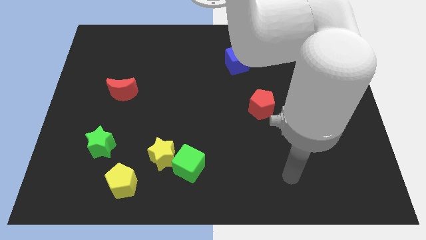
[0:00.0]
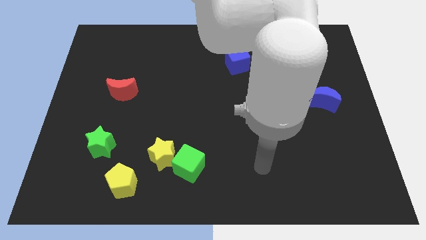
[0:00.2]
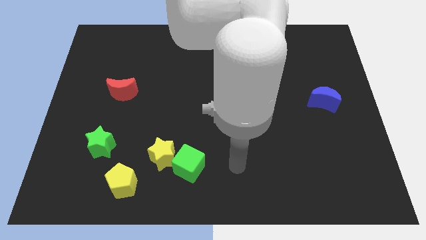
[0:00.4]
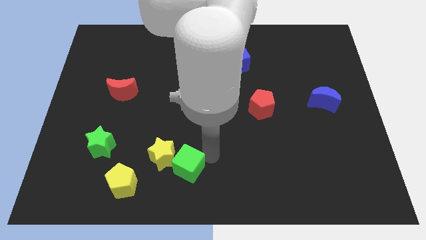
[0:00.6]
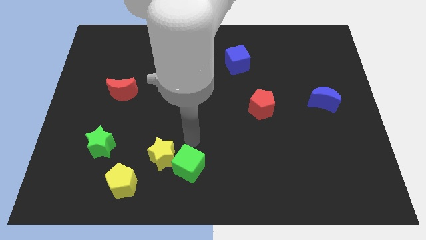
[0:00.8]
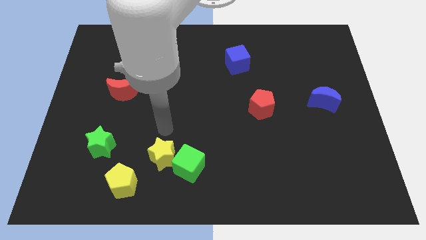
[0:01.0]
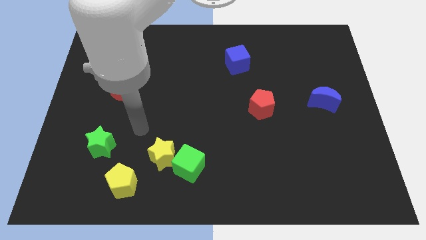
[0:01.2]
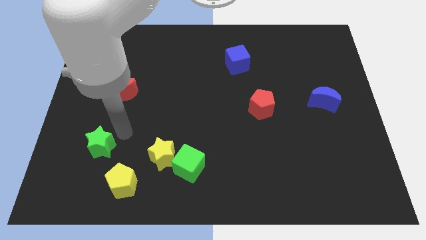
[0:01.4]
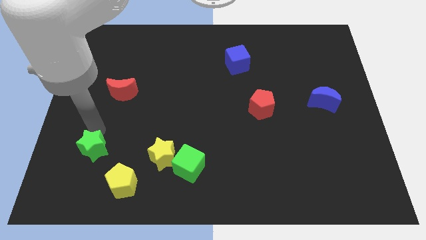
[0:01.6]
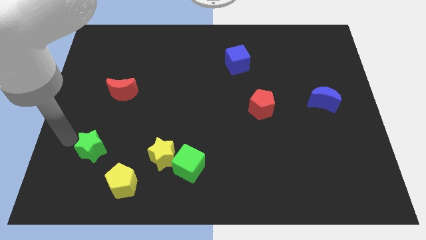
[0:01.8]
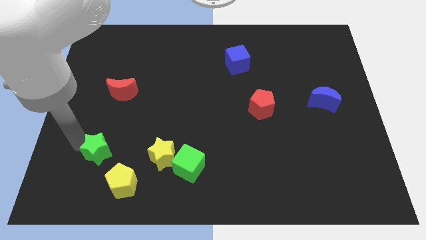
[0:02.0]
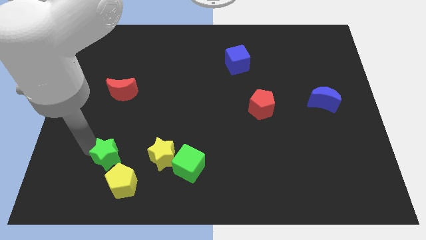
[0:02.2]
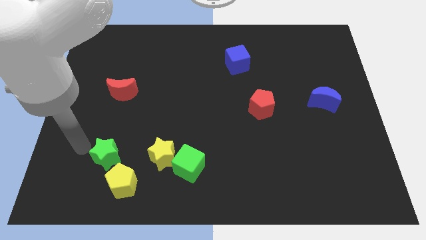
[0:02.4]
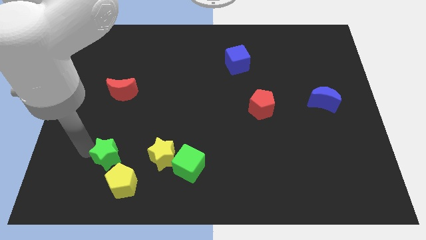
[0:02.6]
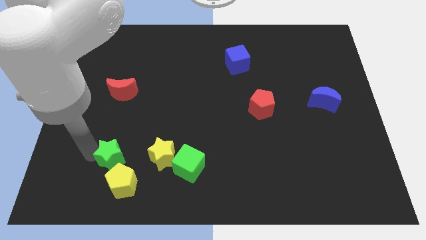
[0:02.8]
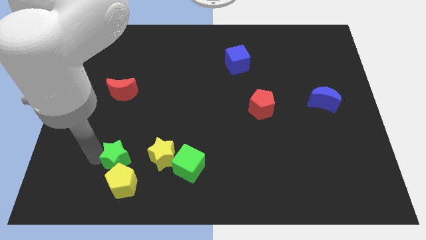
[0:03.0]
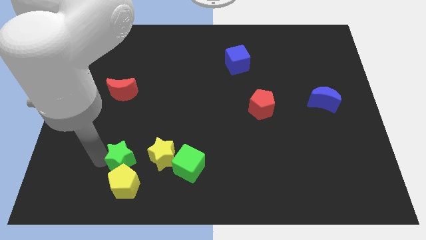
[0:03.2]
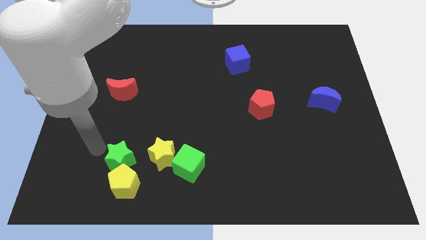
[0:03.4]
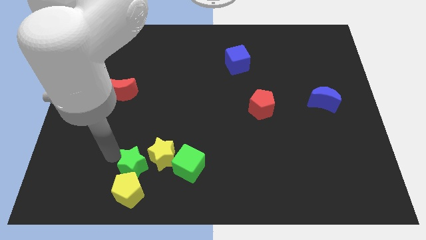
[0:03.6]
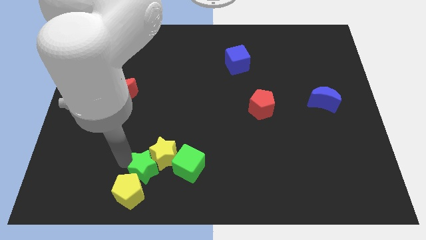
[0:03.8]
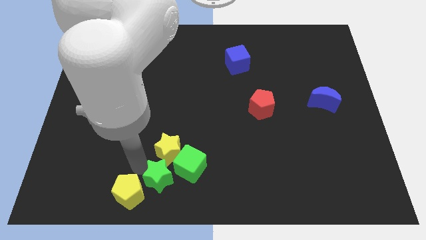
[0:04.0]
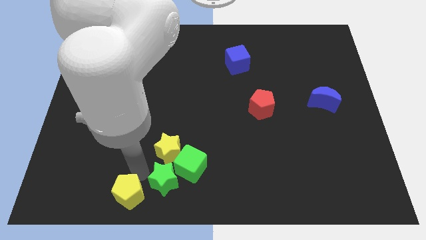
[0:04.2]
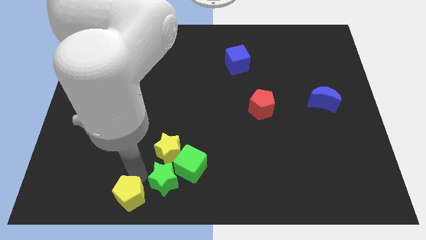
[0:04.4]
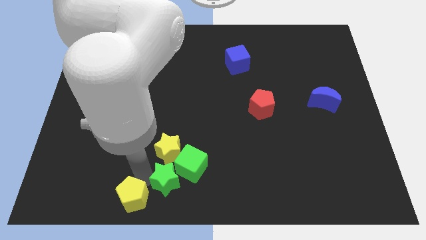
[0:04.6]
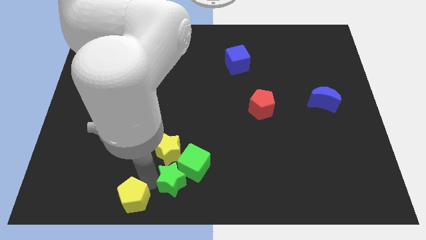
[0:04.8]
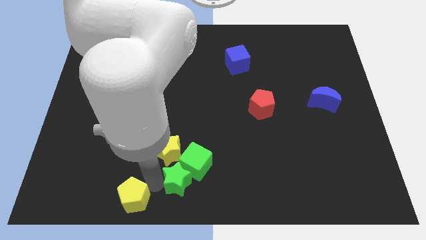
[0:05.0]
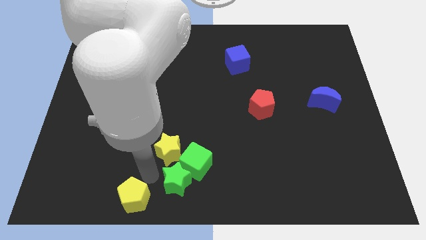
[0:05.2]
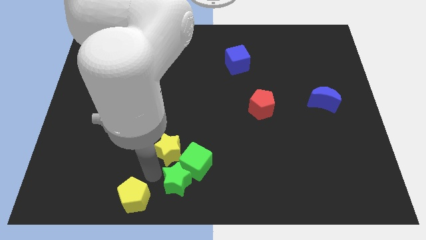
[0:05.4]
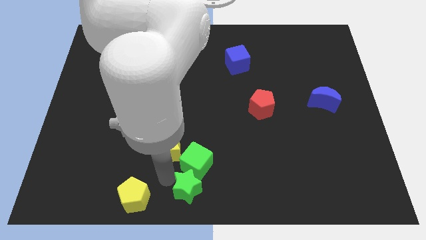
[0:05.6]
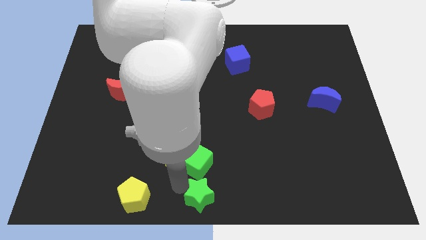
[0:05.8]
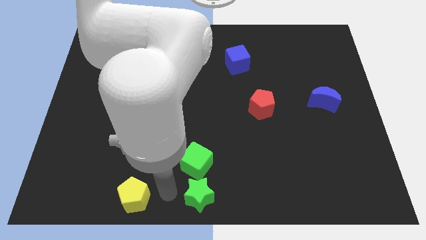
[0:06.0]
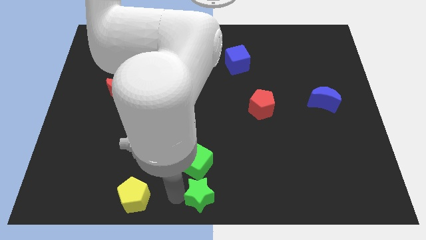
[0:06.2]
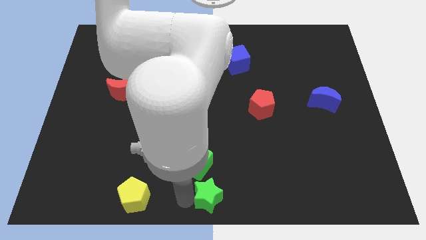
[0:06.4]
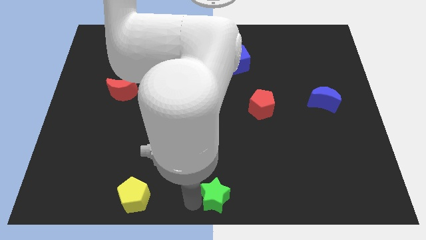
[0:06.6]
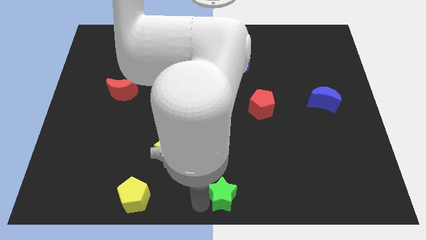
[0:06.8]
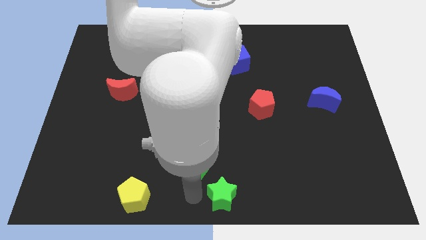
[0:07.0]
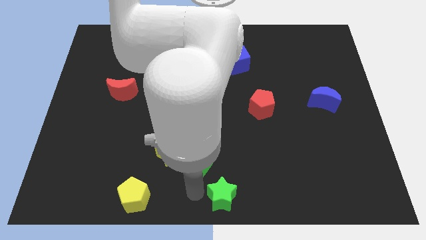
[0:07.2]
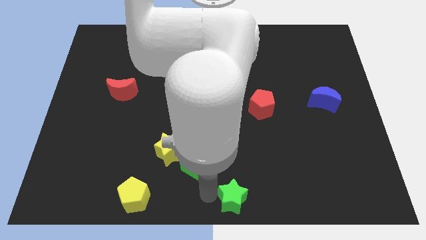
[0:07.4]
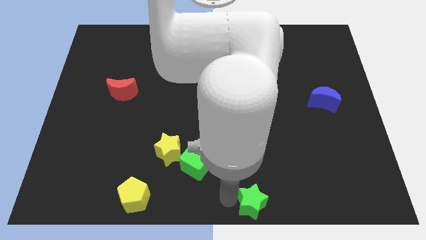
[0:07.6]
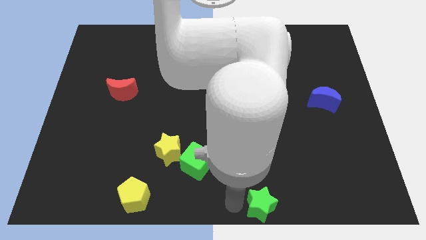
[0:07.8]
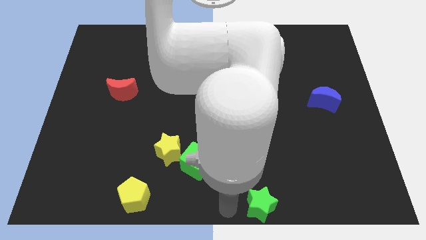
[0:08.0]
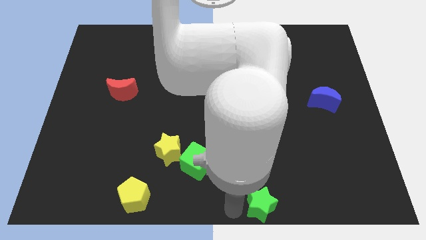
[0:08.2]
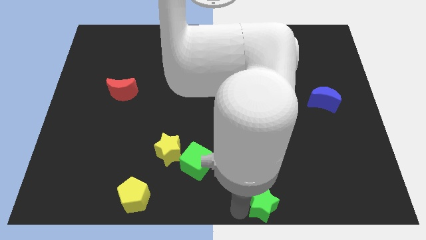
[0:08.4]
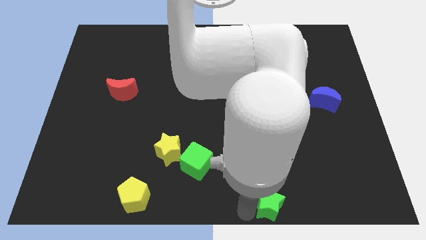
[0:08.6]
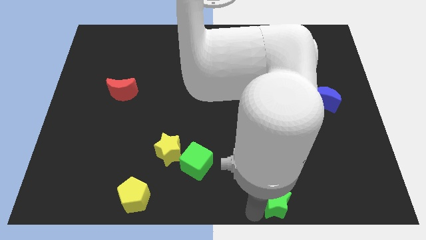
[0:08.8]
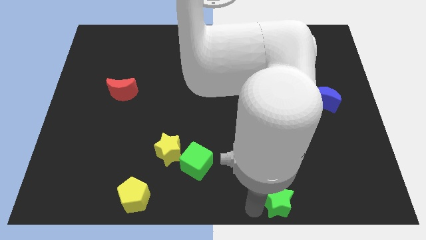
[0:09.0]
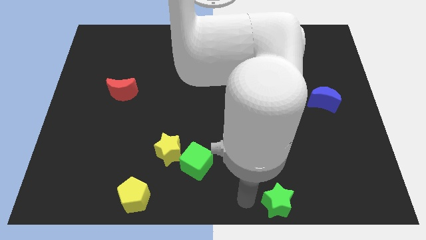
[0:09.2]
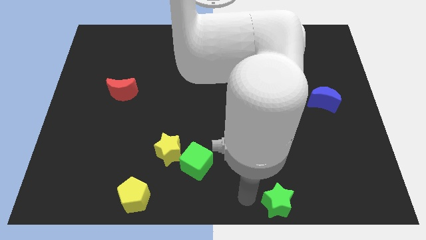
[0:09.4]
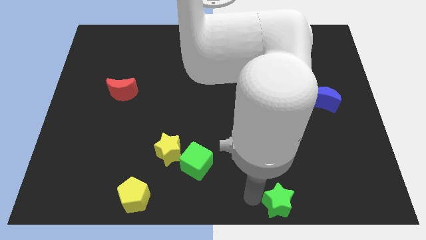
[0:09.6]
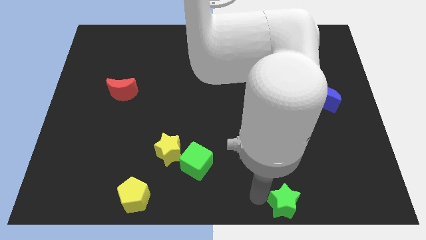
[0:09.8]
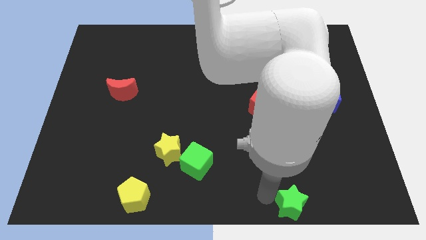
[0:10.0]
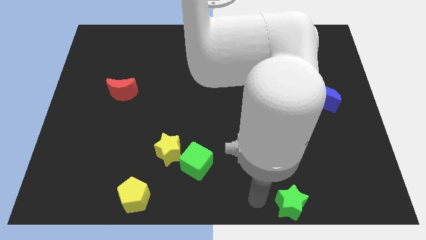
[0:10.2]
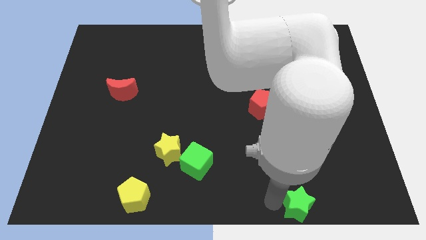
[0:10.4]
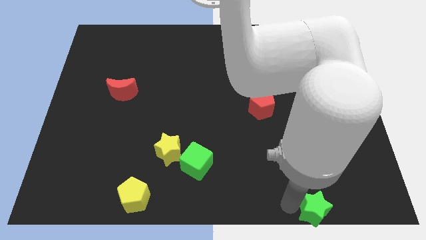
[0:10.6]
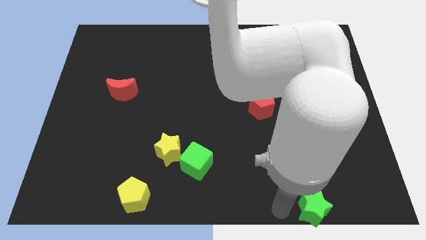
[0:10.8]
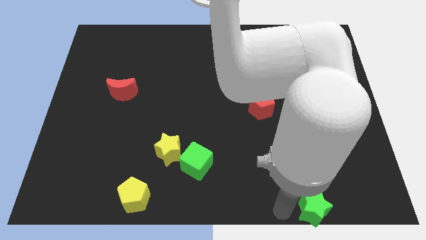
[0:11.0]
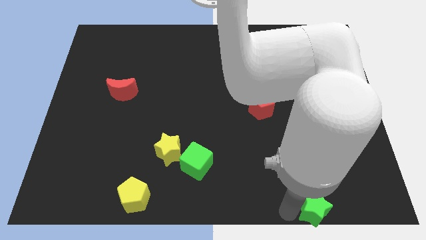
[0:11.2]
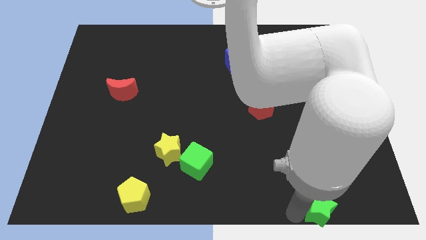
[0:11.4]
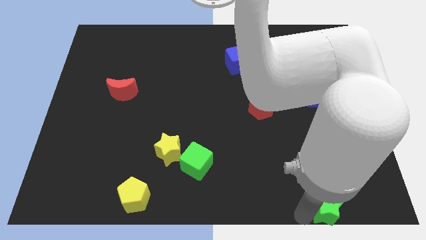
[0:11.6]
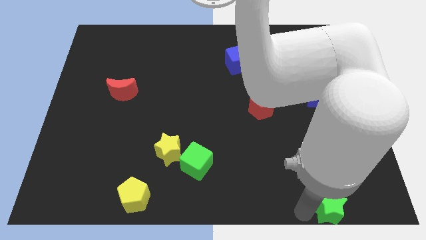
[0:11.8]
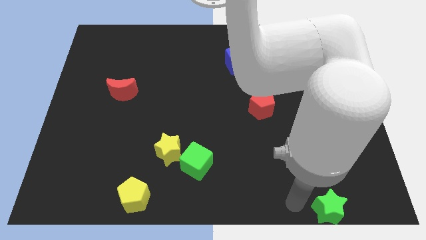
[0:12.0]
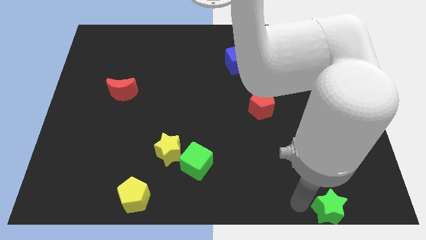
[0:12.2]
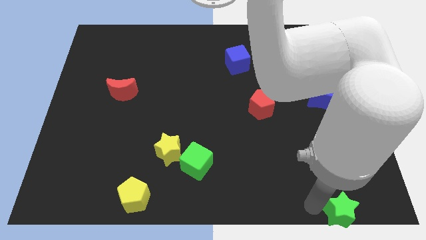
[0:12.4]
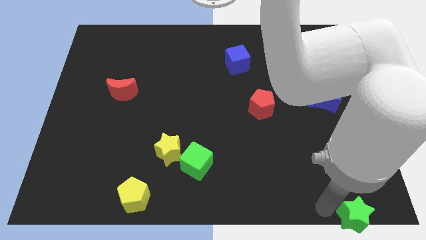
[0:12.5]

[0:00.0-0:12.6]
put the green star to the bottom right corner
